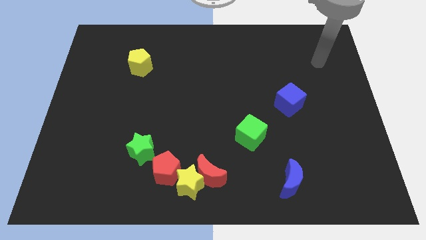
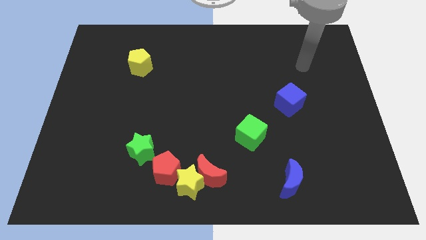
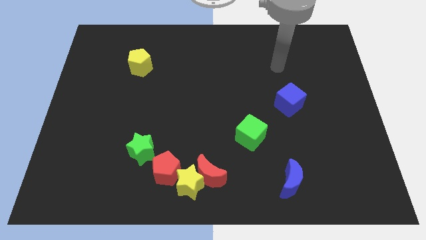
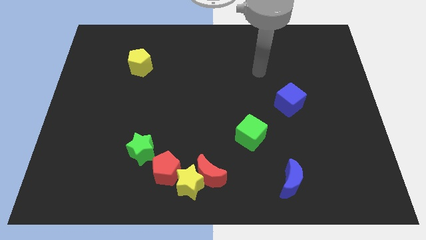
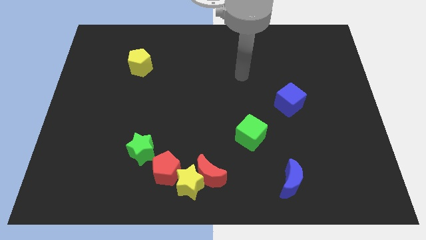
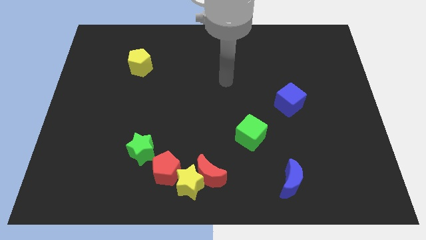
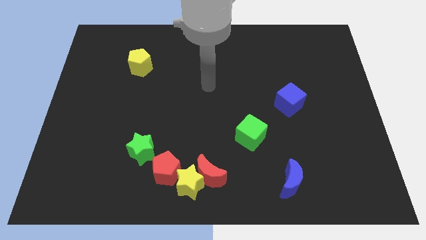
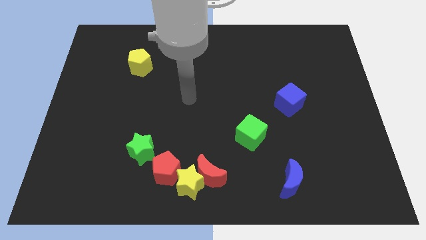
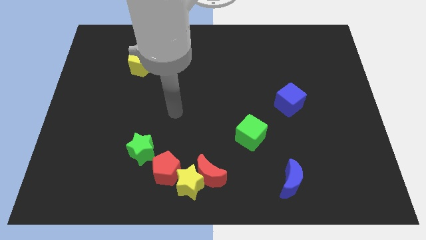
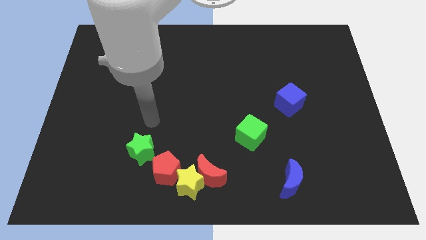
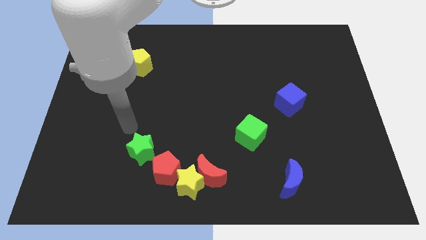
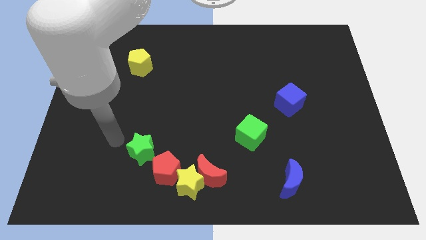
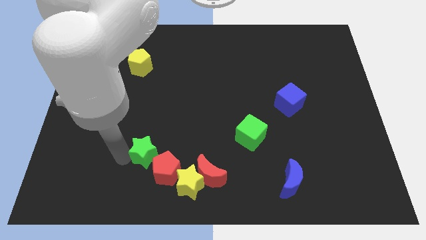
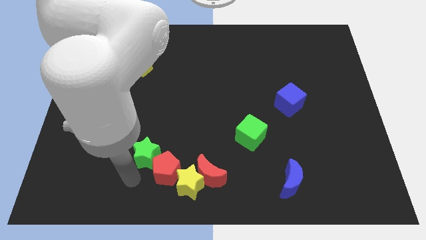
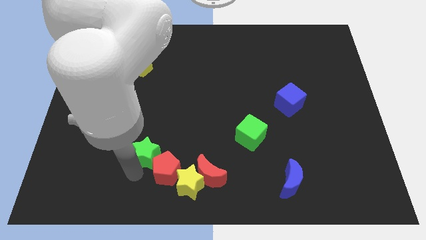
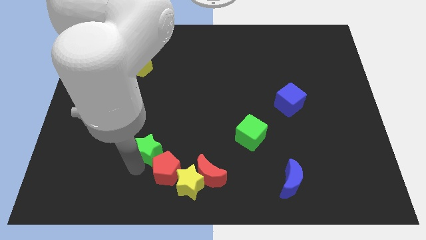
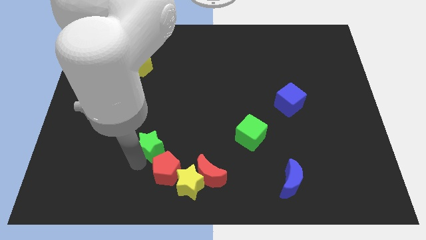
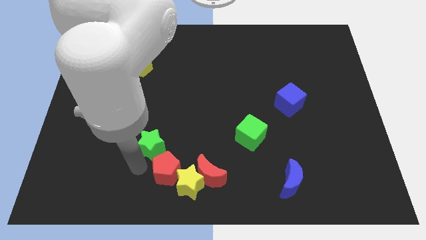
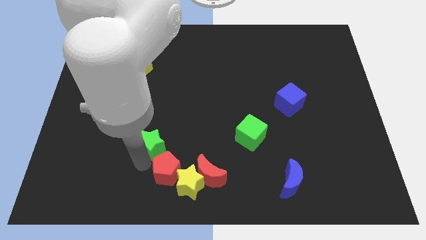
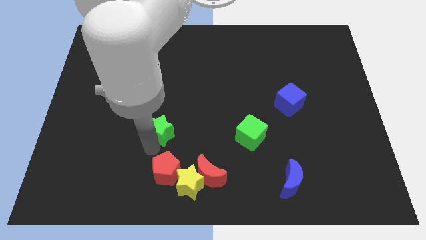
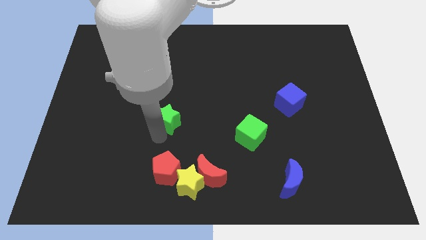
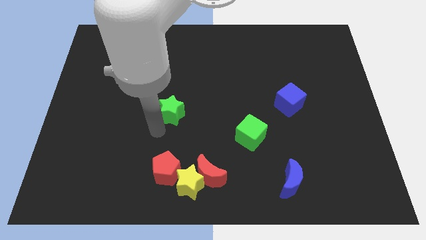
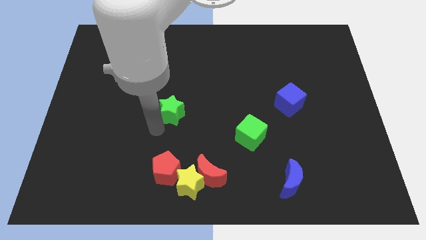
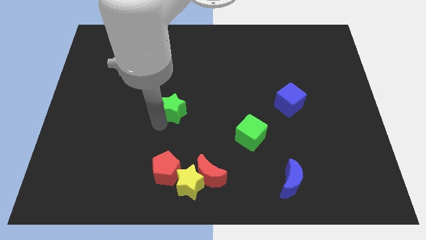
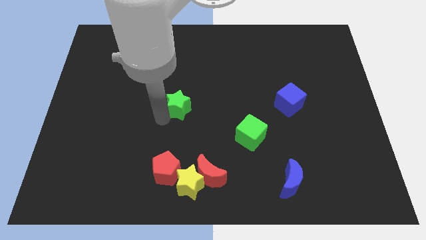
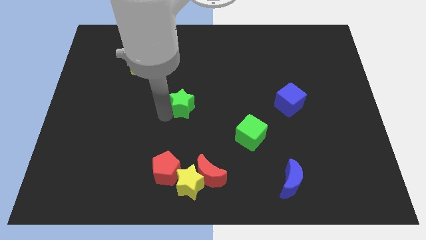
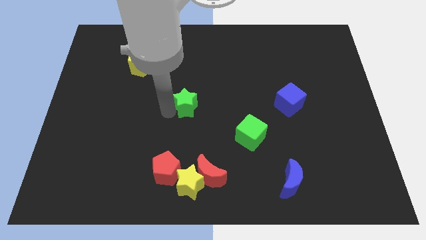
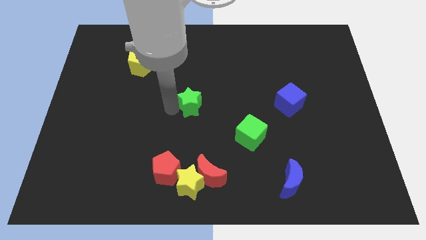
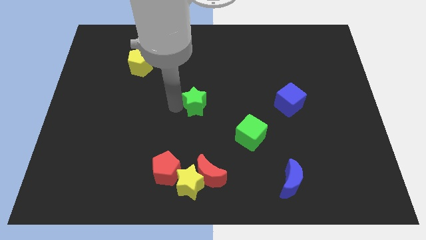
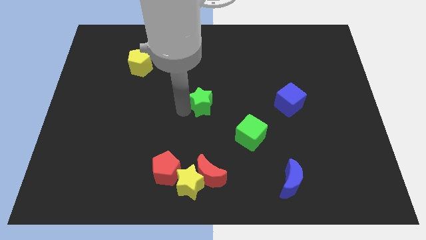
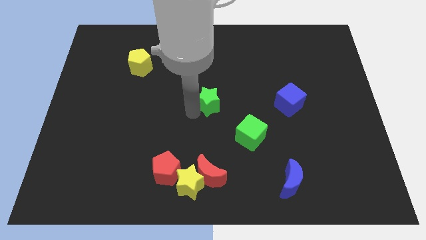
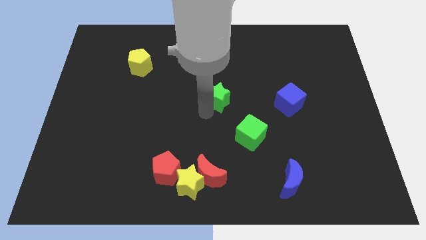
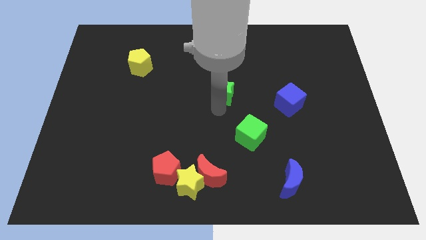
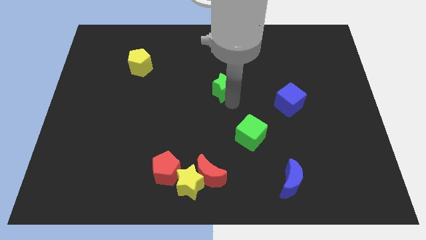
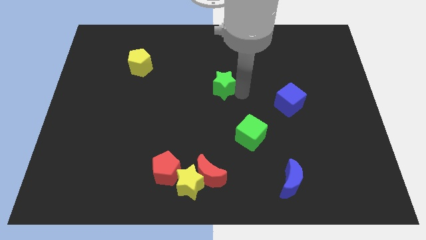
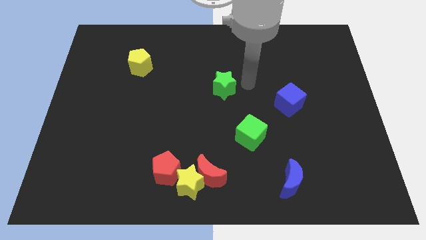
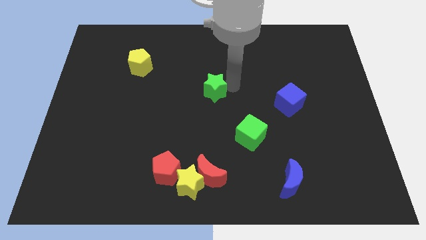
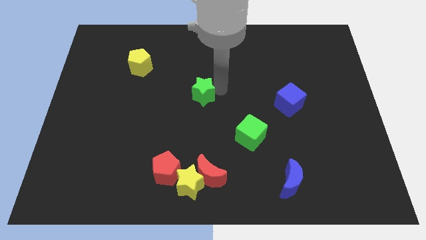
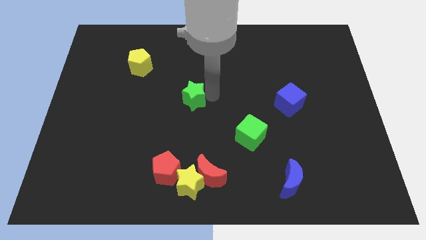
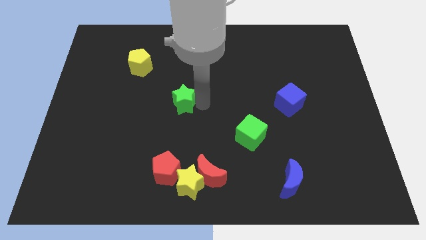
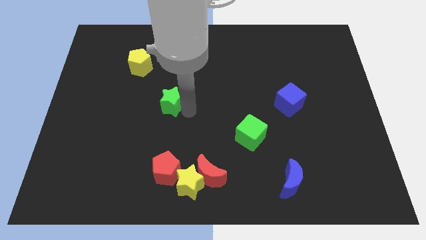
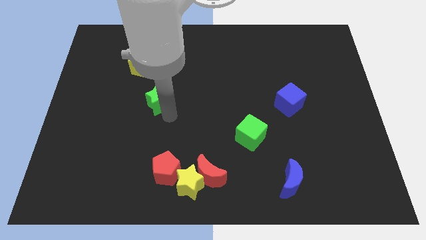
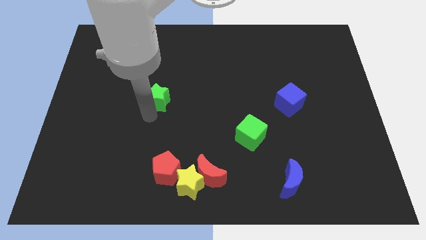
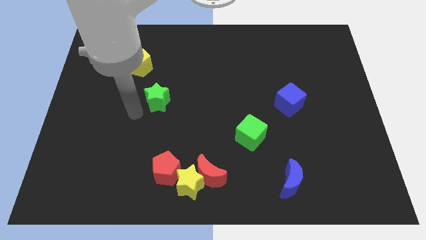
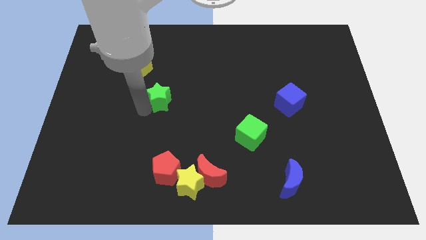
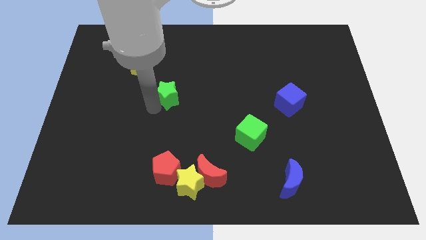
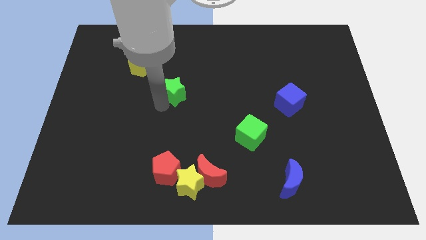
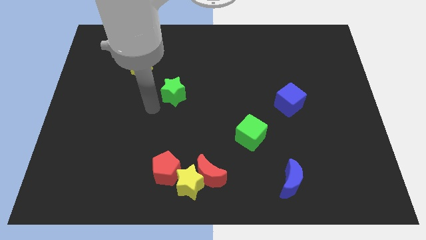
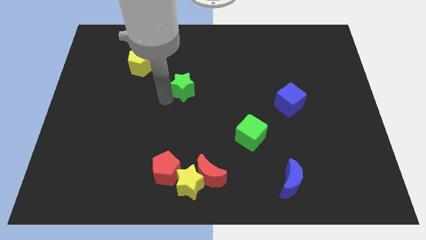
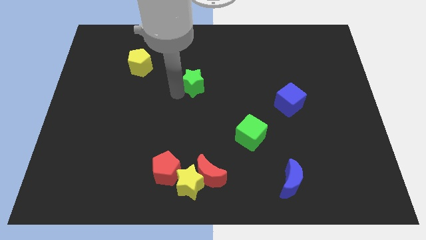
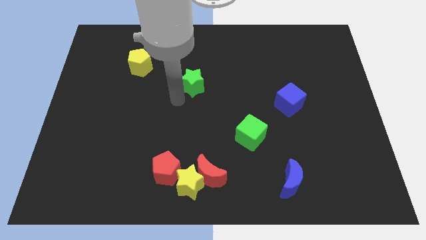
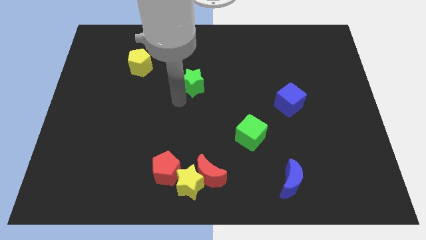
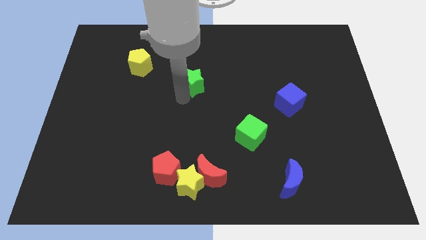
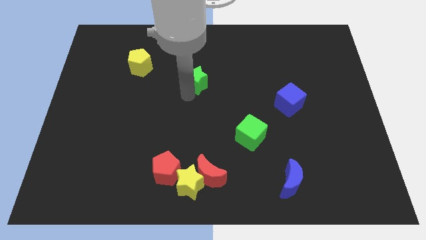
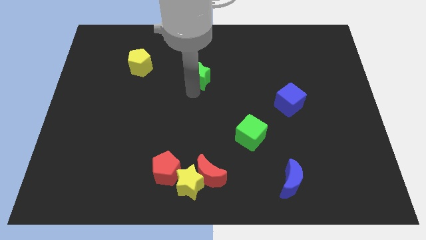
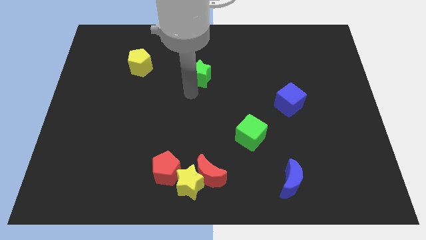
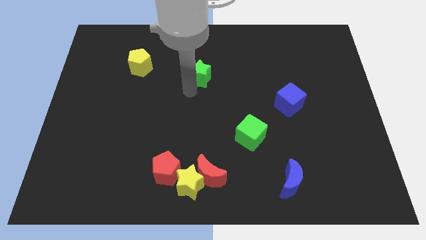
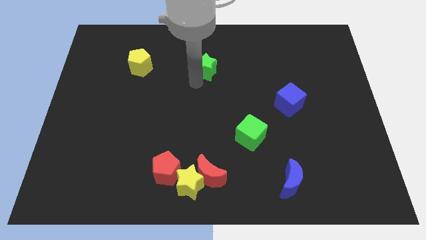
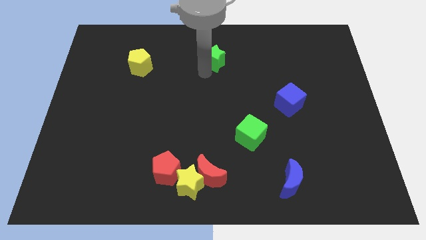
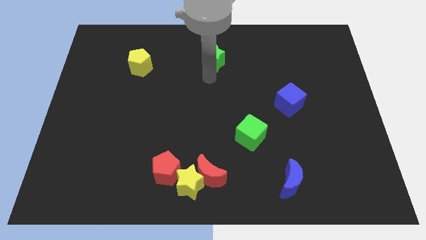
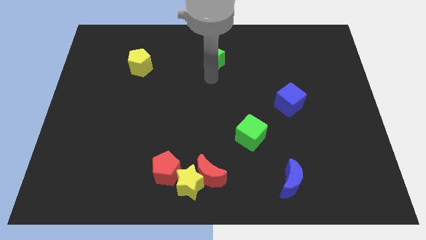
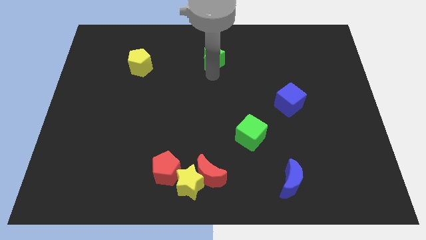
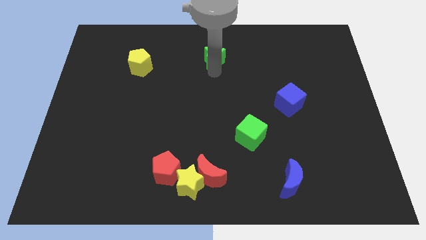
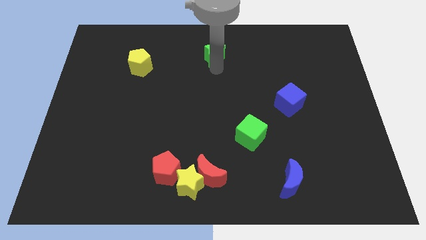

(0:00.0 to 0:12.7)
push the green star to the top side
